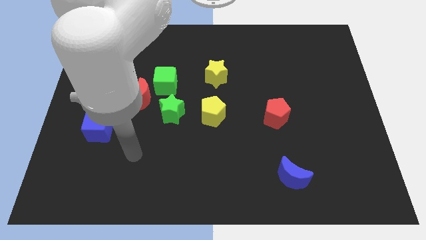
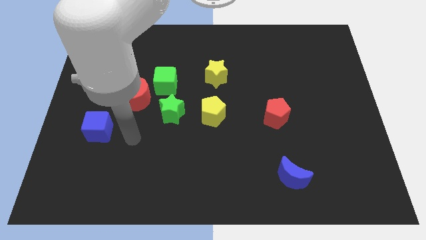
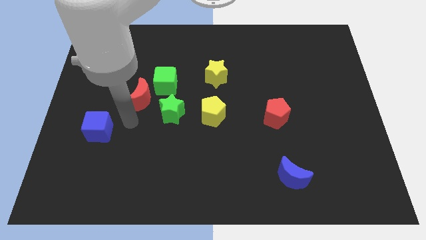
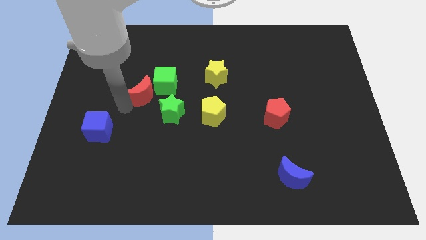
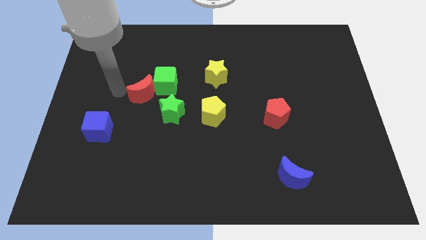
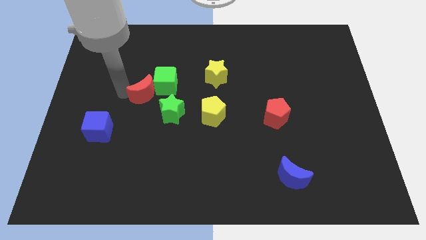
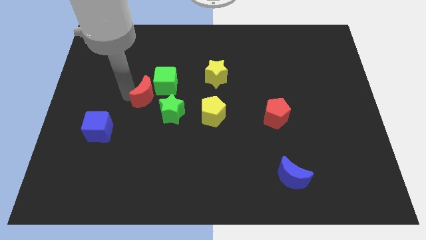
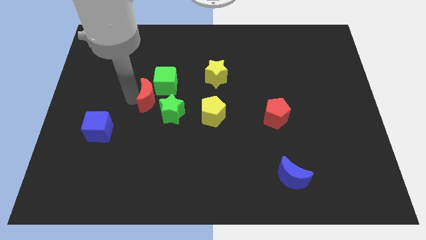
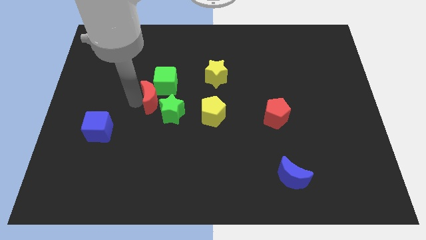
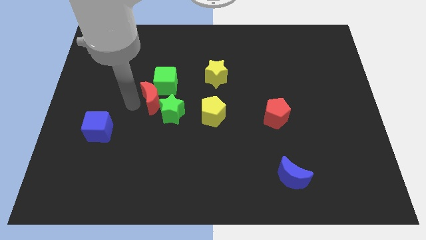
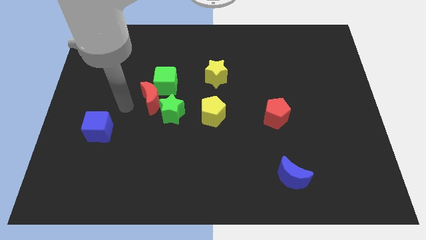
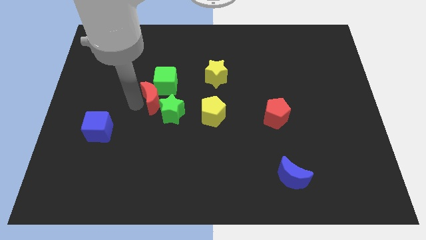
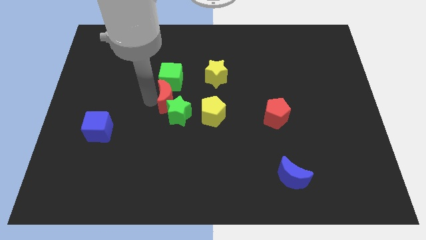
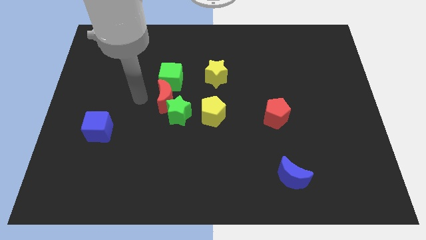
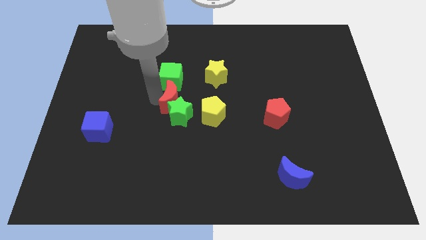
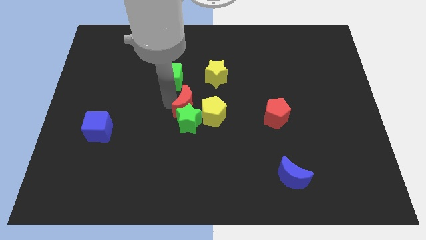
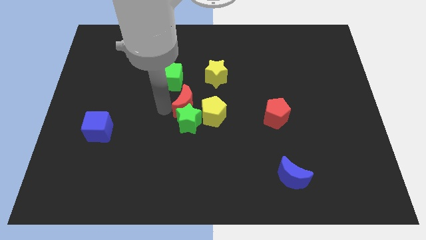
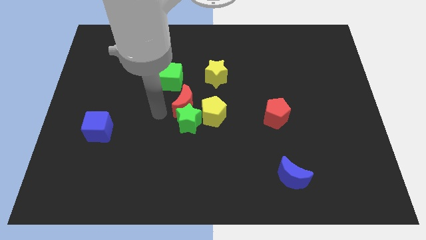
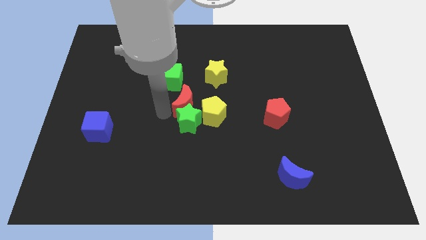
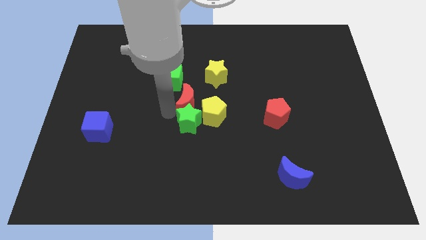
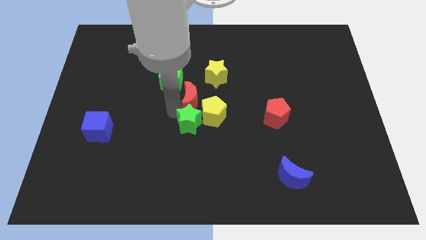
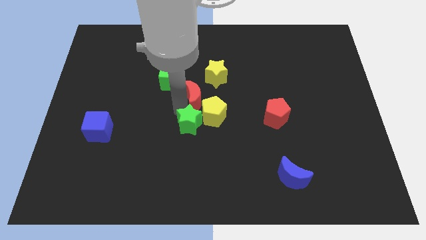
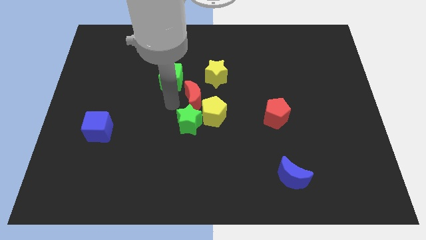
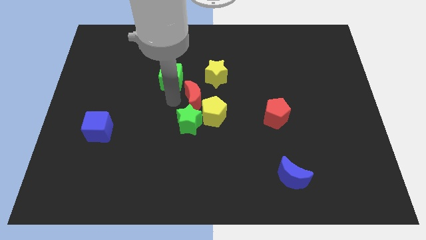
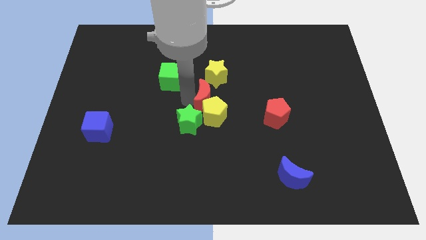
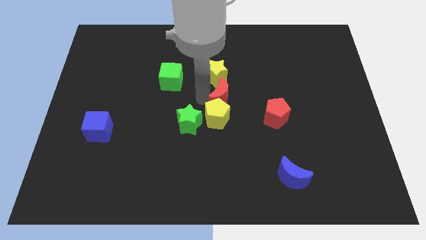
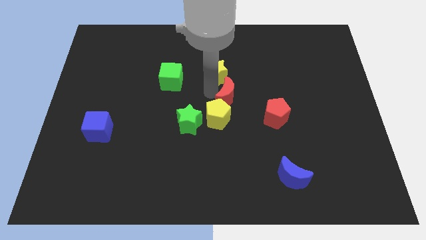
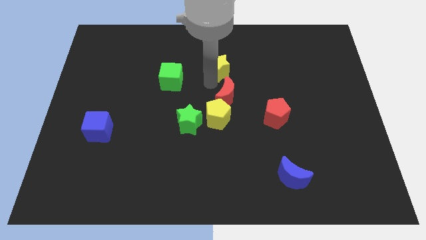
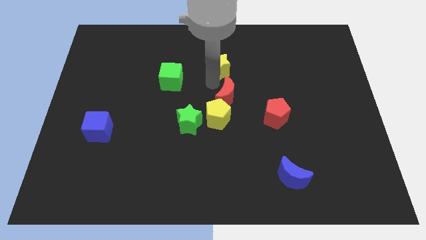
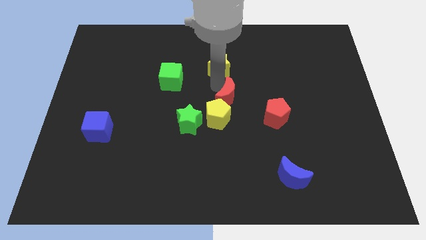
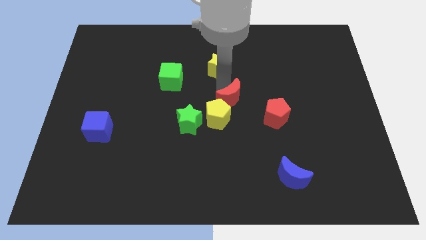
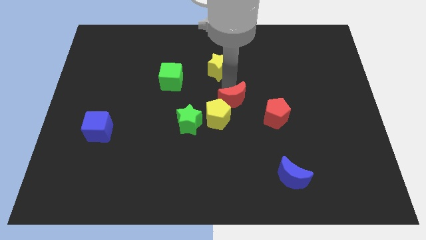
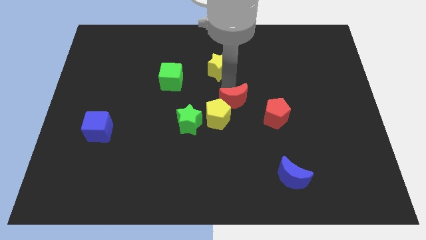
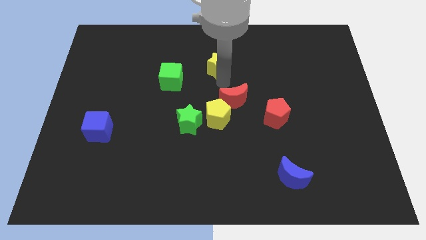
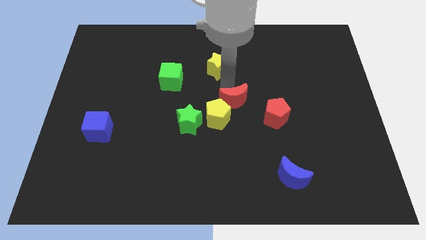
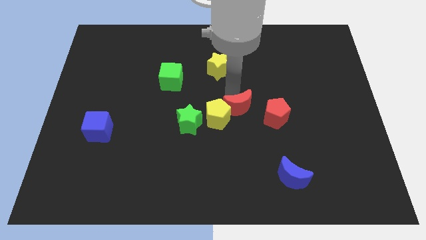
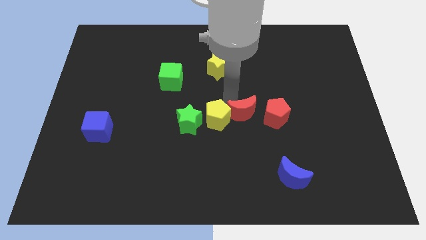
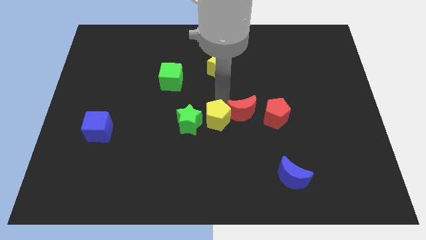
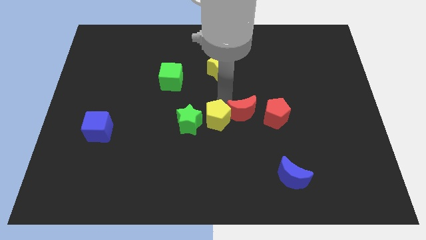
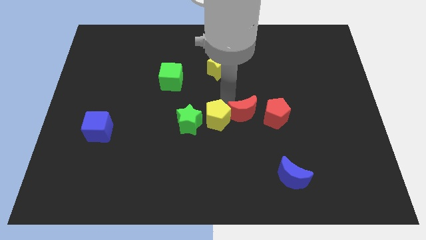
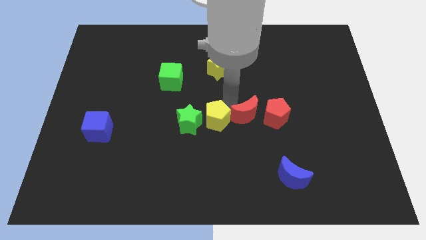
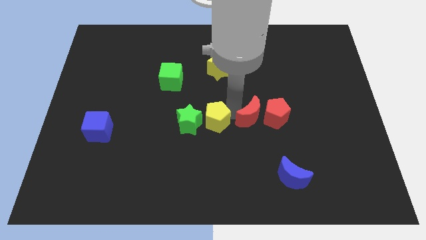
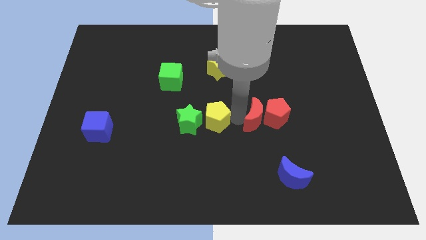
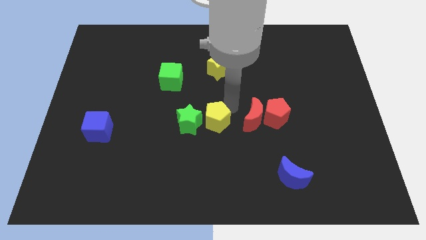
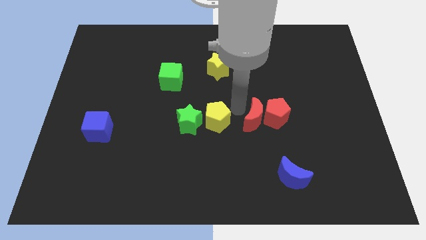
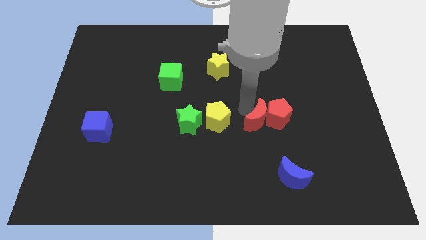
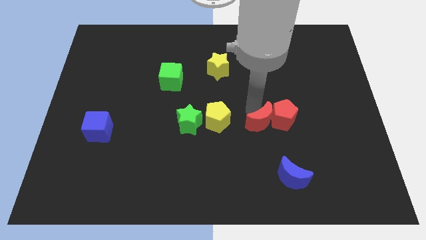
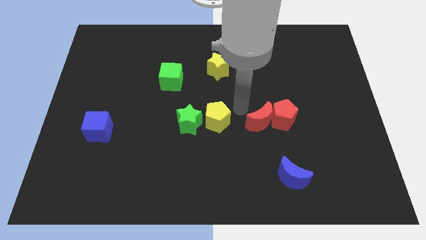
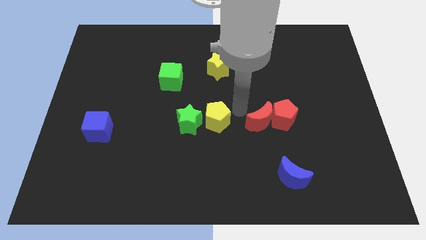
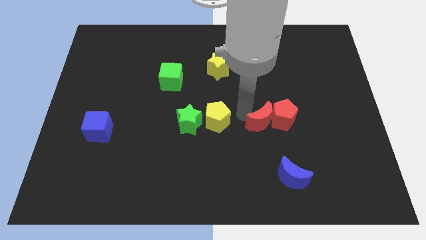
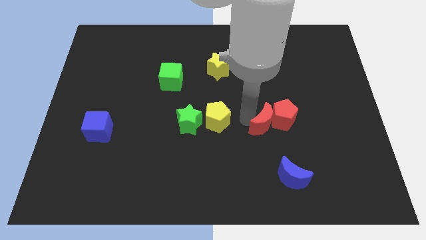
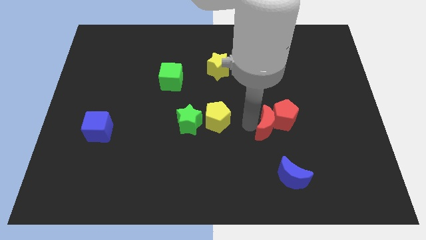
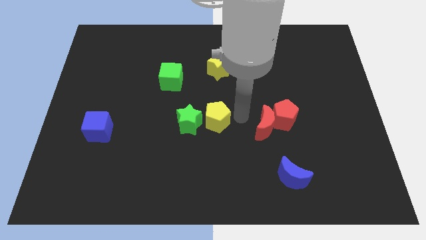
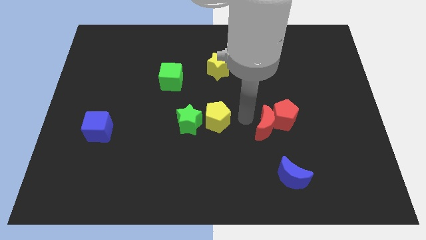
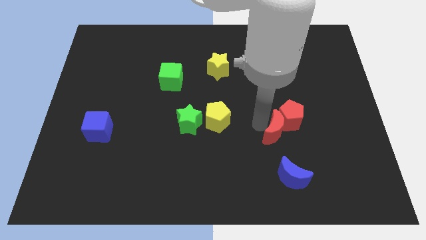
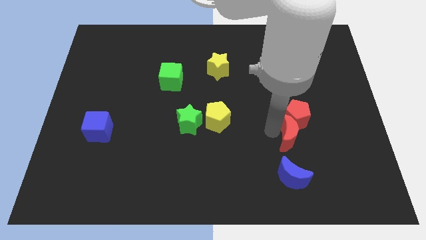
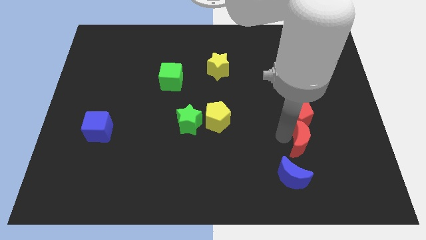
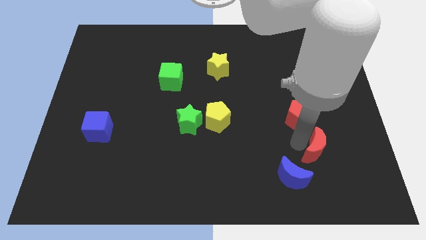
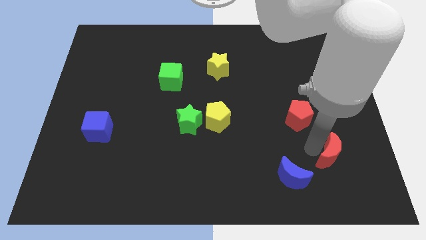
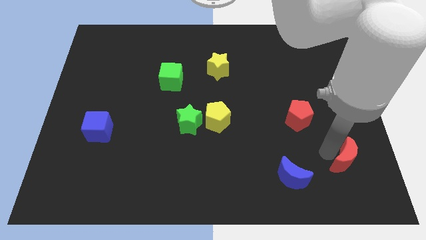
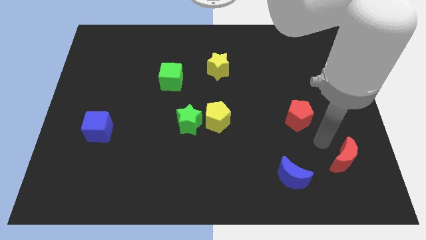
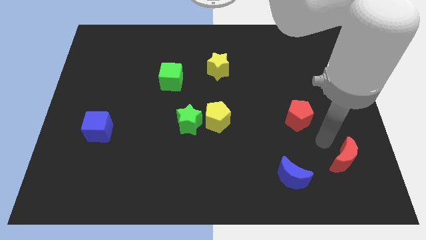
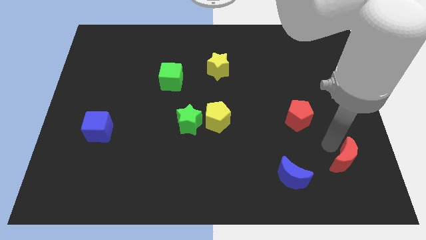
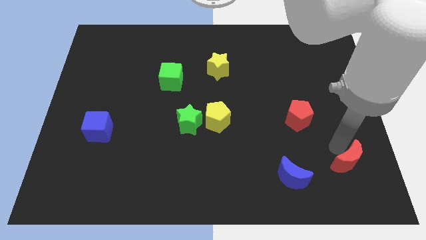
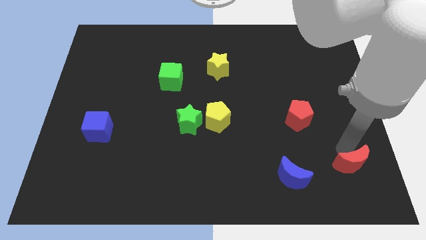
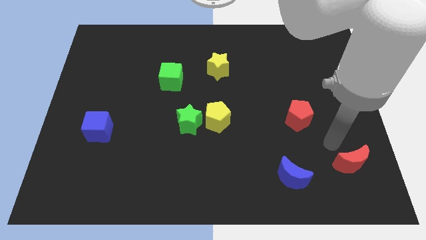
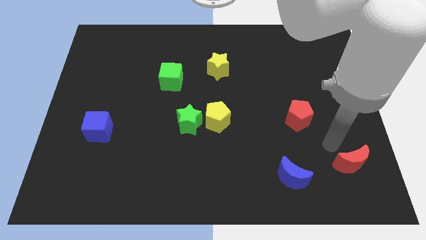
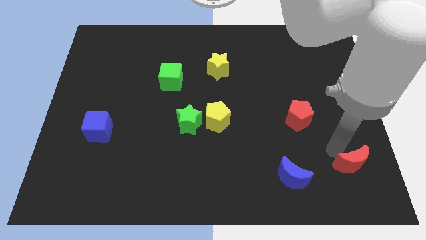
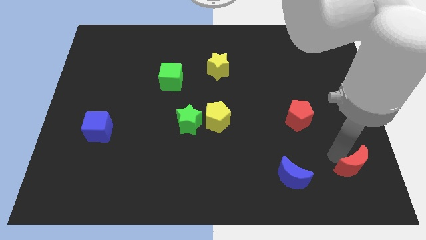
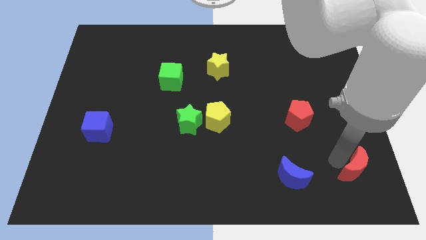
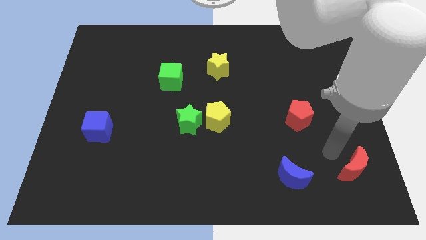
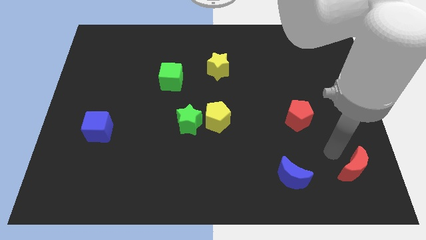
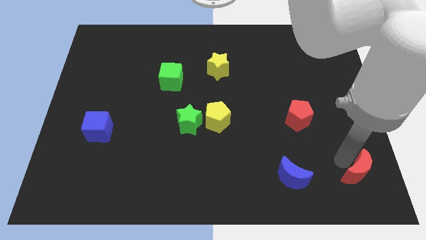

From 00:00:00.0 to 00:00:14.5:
slide the red moon to the lower right corner
